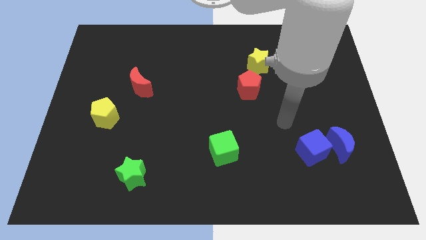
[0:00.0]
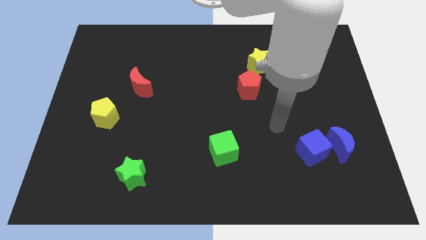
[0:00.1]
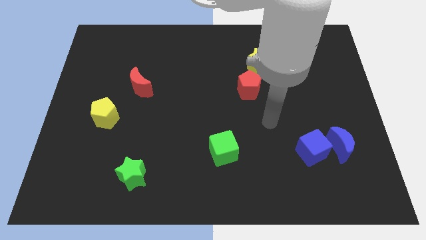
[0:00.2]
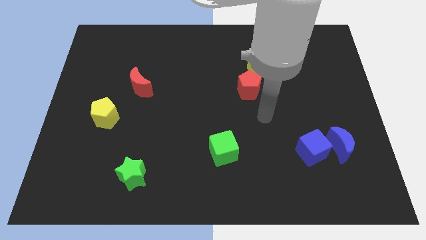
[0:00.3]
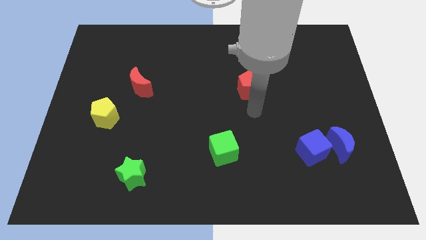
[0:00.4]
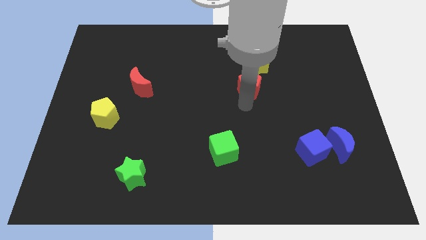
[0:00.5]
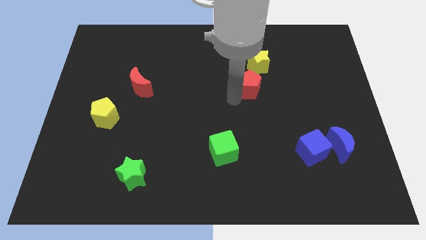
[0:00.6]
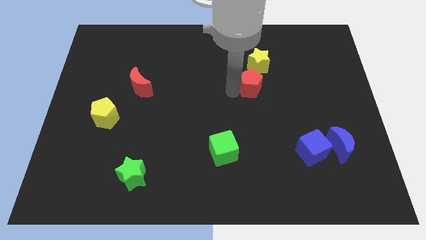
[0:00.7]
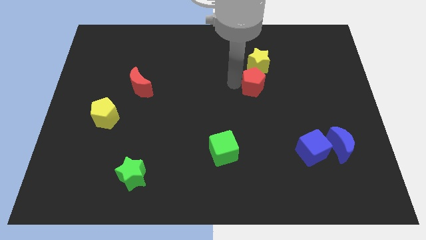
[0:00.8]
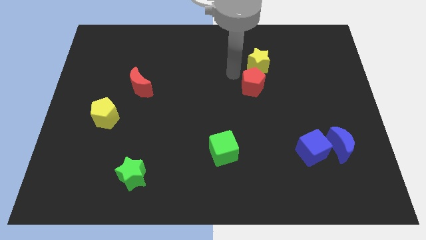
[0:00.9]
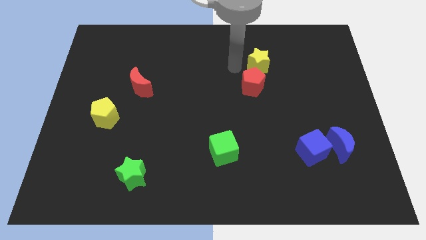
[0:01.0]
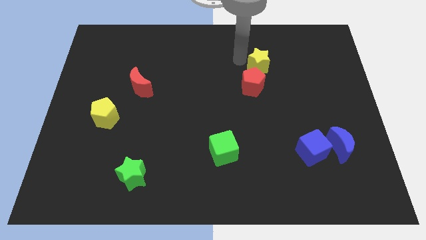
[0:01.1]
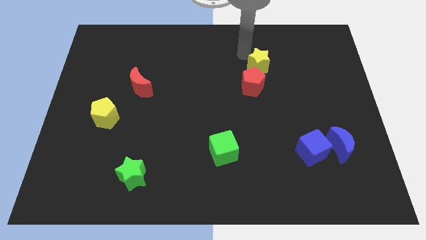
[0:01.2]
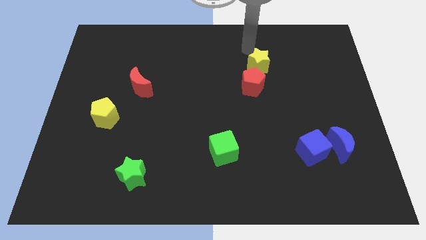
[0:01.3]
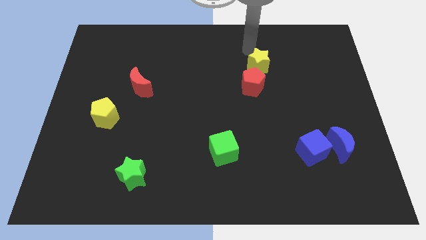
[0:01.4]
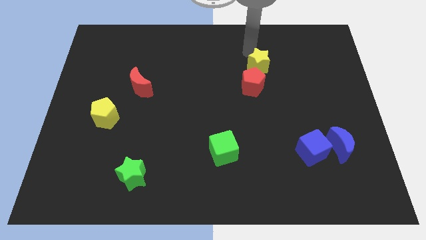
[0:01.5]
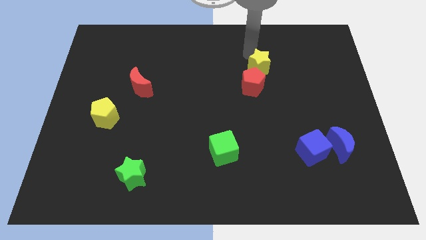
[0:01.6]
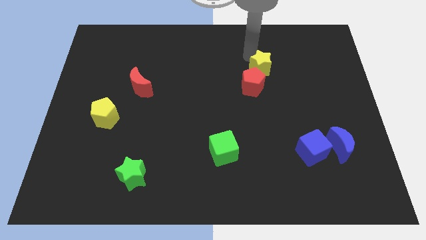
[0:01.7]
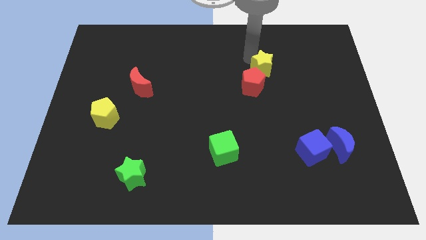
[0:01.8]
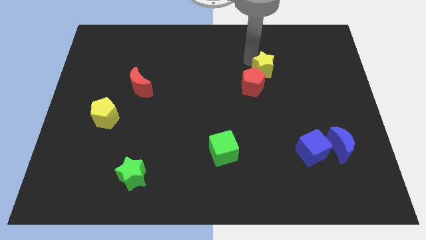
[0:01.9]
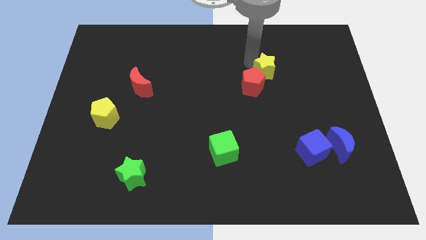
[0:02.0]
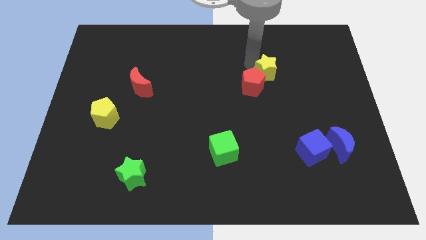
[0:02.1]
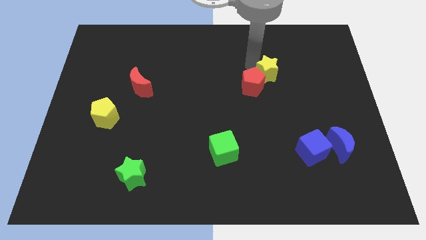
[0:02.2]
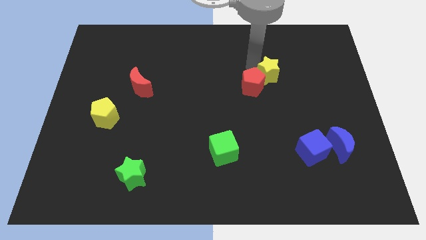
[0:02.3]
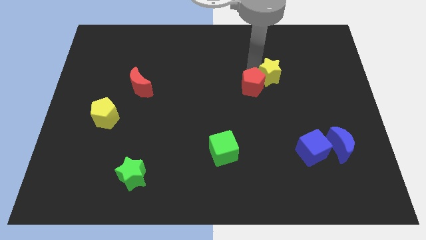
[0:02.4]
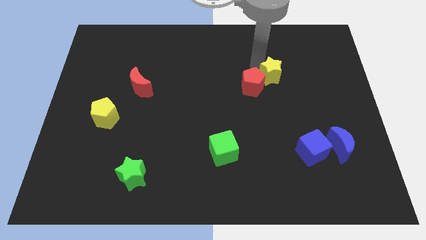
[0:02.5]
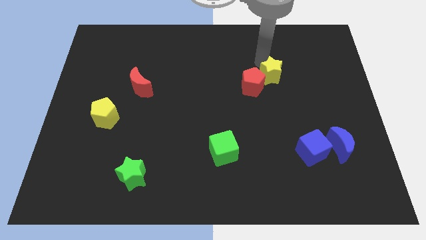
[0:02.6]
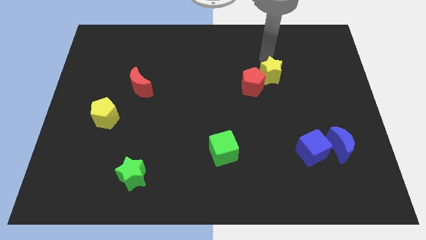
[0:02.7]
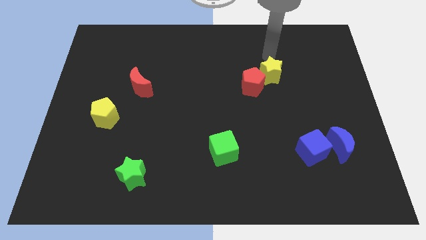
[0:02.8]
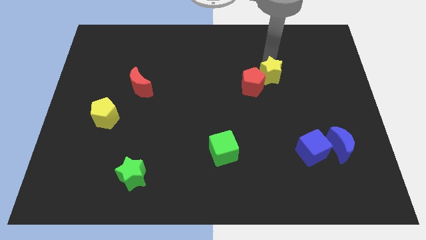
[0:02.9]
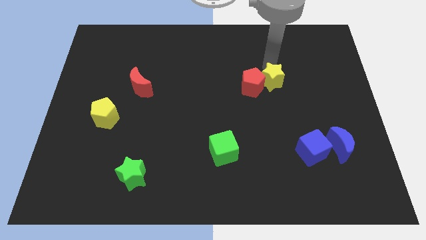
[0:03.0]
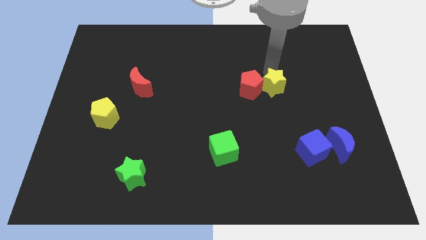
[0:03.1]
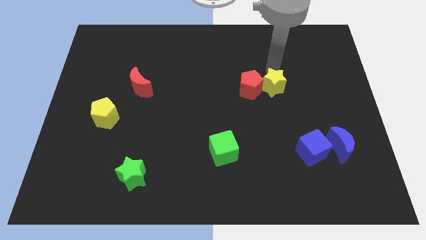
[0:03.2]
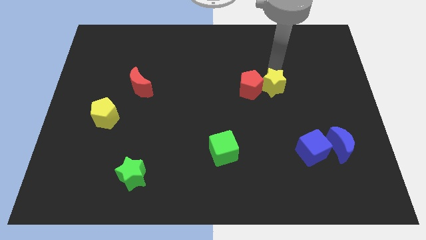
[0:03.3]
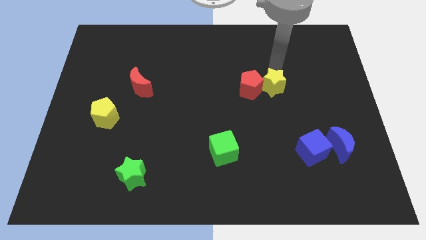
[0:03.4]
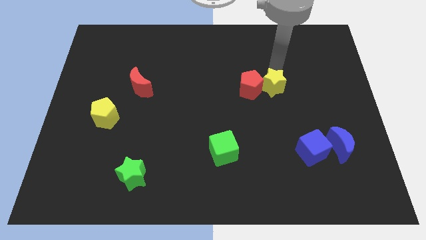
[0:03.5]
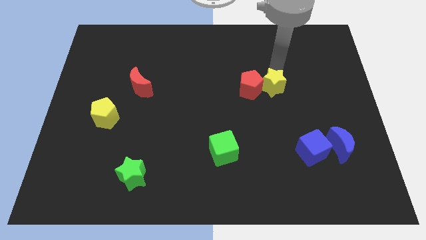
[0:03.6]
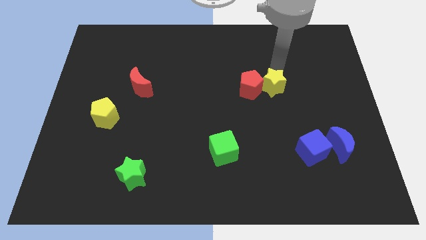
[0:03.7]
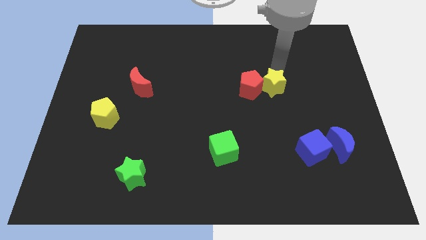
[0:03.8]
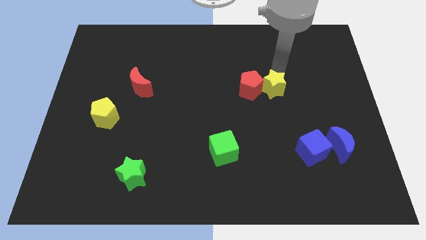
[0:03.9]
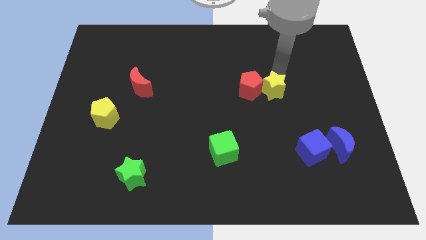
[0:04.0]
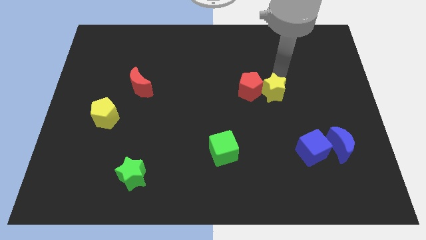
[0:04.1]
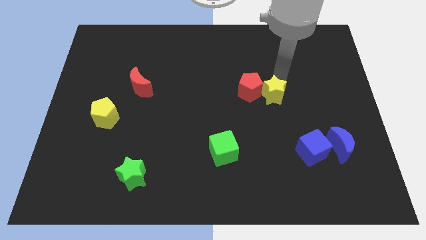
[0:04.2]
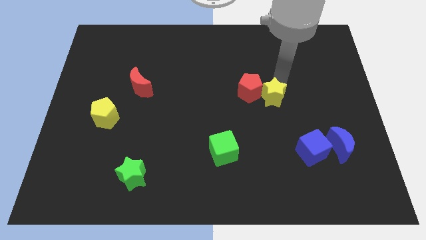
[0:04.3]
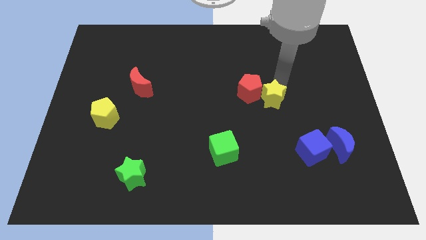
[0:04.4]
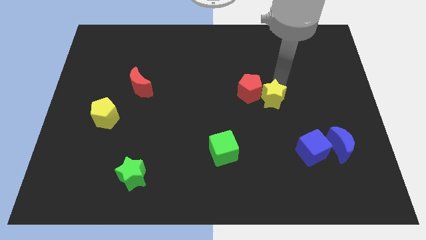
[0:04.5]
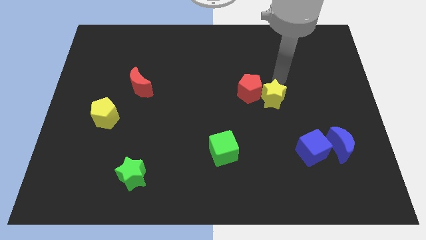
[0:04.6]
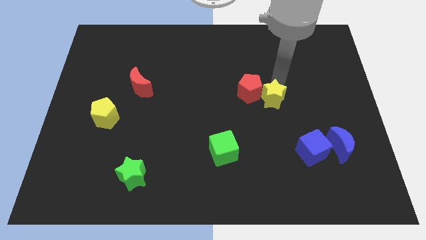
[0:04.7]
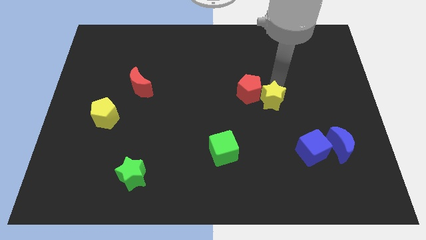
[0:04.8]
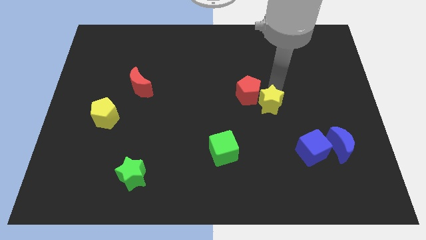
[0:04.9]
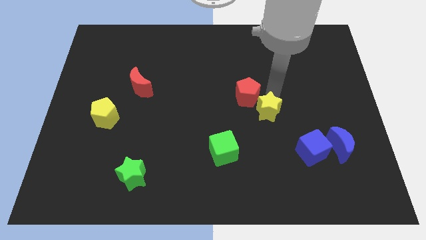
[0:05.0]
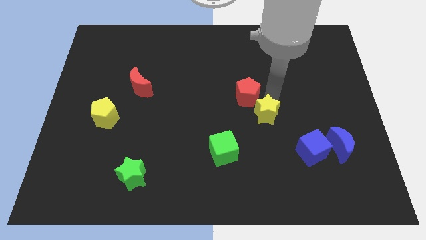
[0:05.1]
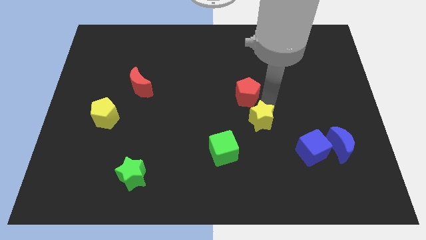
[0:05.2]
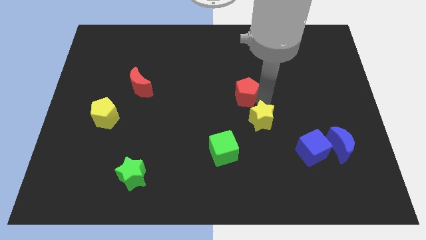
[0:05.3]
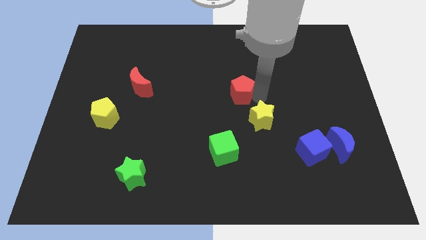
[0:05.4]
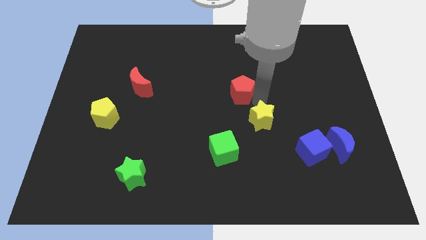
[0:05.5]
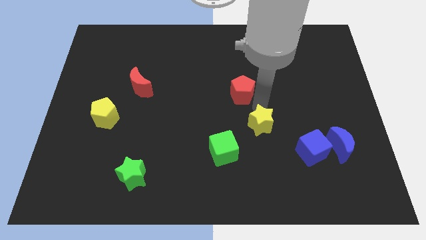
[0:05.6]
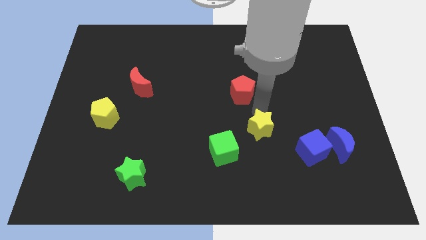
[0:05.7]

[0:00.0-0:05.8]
move the yellow star down

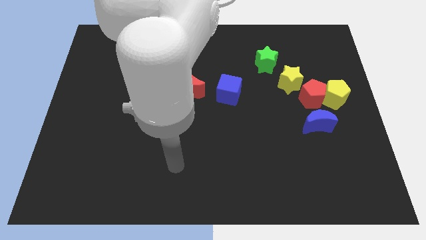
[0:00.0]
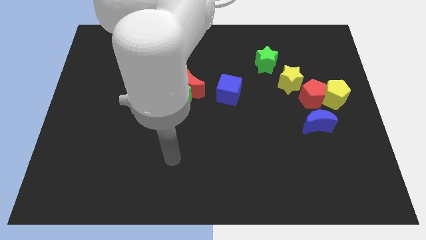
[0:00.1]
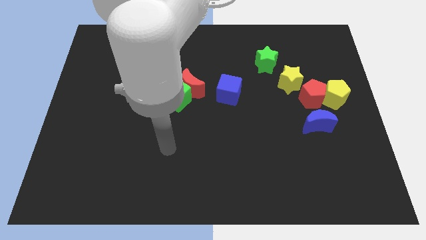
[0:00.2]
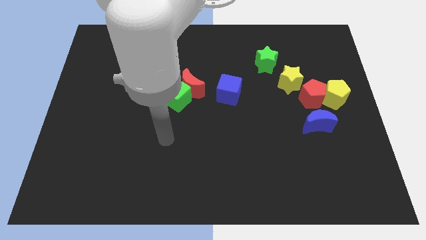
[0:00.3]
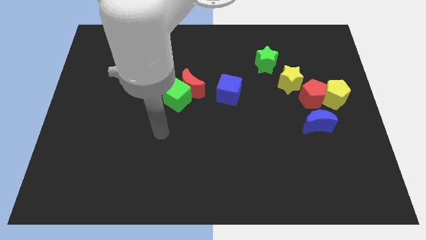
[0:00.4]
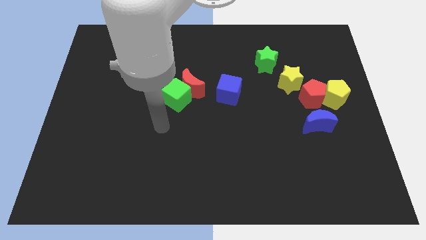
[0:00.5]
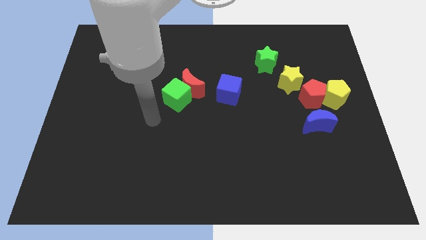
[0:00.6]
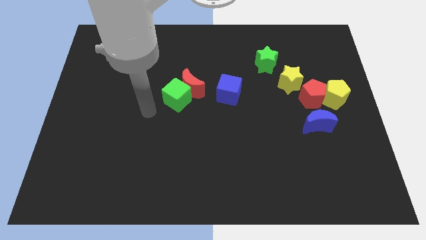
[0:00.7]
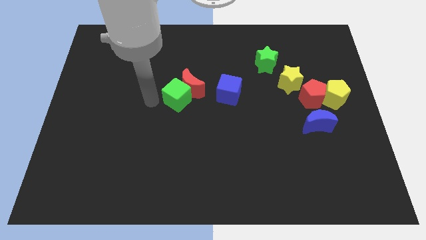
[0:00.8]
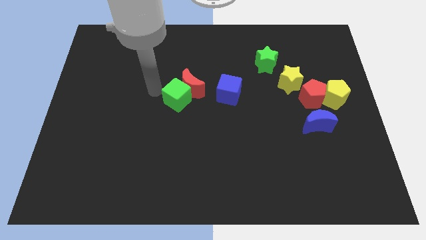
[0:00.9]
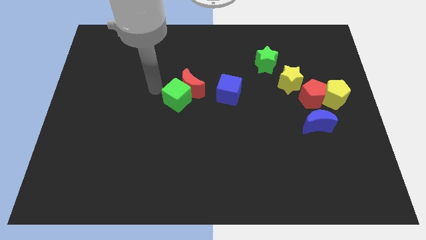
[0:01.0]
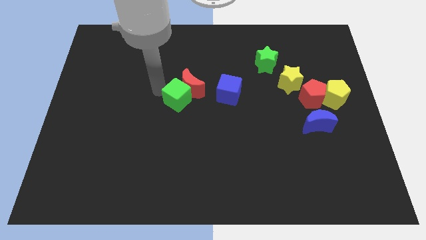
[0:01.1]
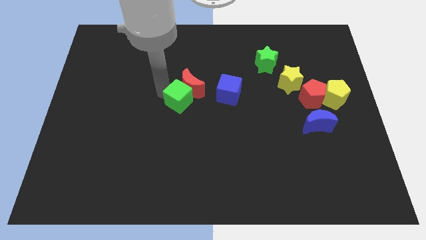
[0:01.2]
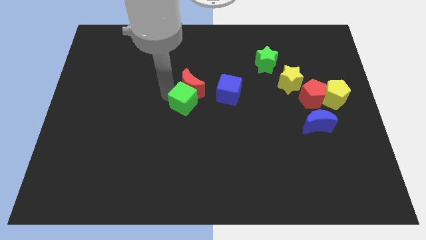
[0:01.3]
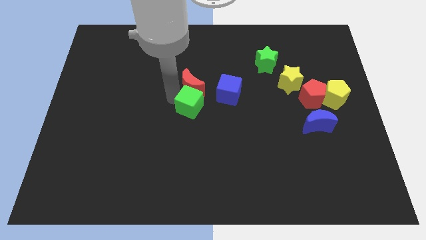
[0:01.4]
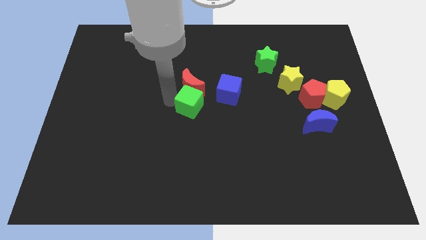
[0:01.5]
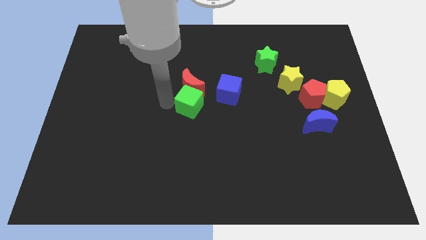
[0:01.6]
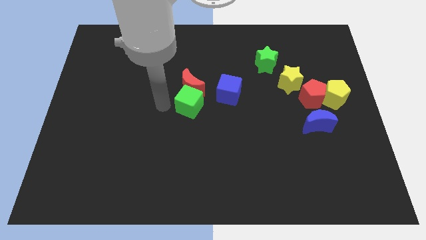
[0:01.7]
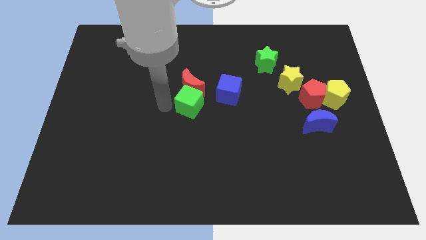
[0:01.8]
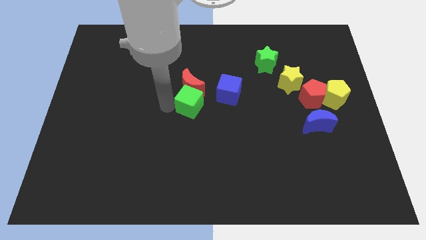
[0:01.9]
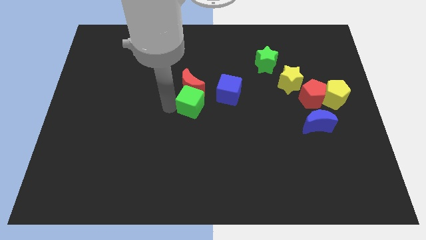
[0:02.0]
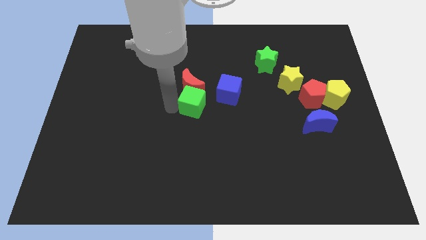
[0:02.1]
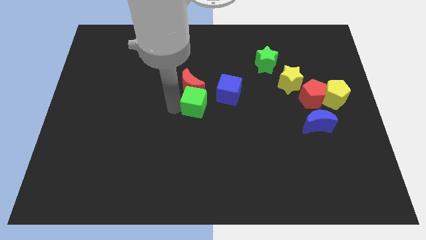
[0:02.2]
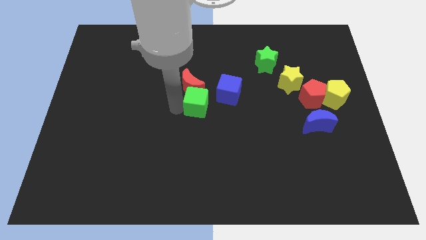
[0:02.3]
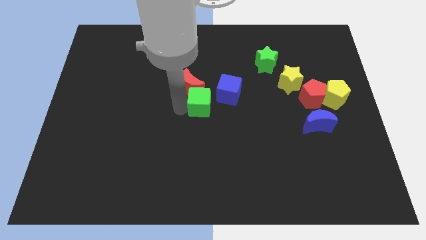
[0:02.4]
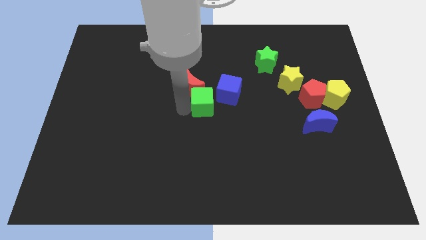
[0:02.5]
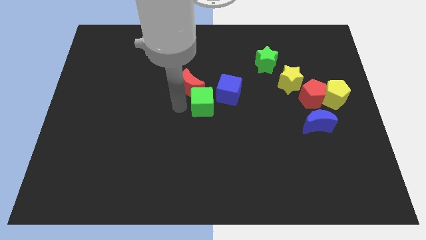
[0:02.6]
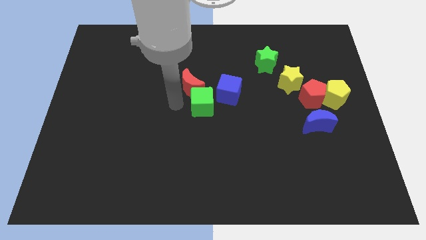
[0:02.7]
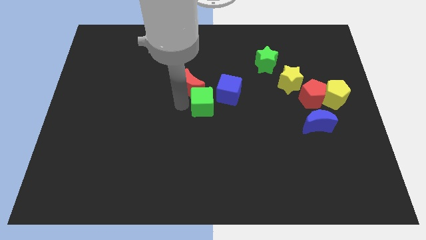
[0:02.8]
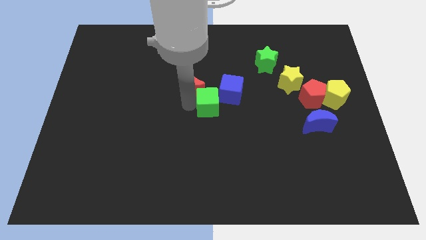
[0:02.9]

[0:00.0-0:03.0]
slightly slide the green cube to the right
